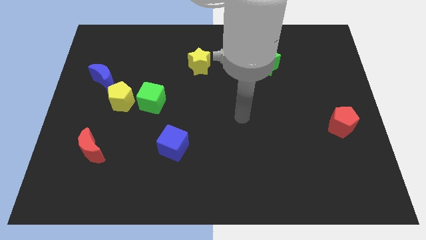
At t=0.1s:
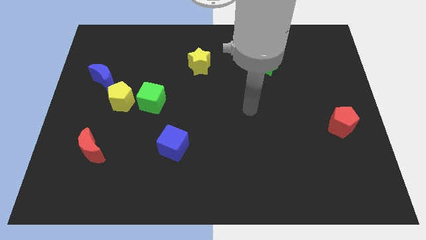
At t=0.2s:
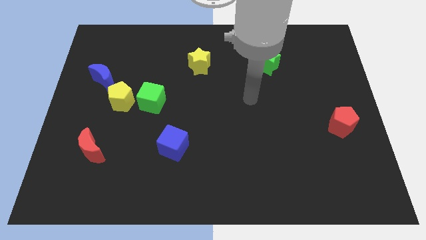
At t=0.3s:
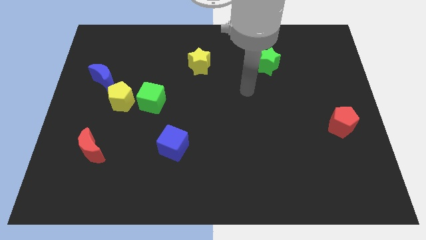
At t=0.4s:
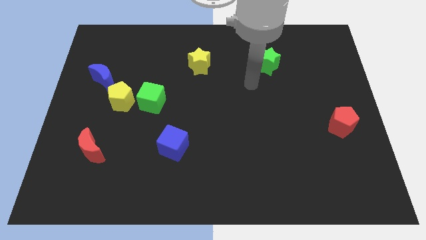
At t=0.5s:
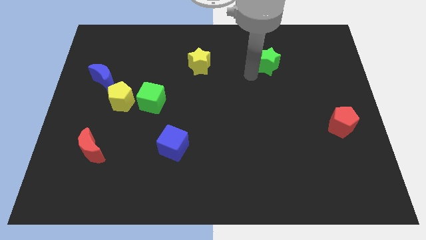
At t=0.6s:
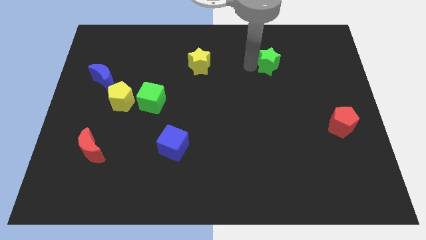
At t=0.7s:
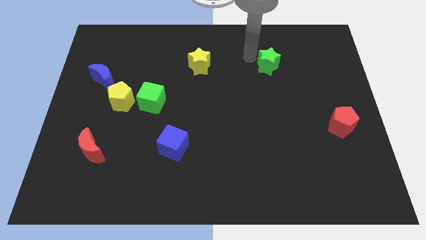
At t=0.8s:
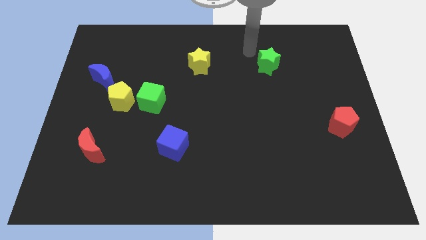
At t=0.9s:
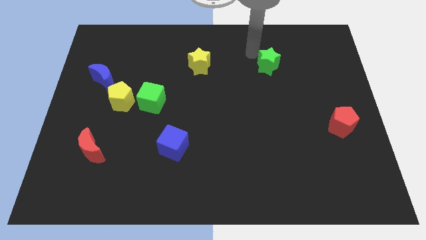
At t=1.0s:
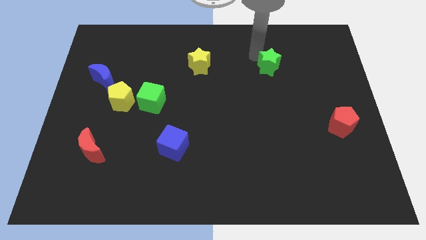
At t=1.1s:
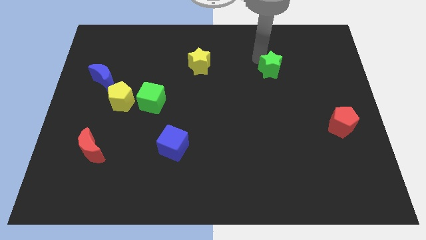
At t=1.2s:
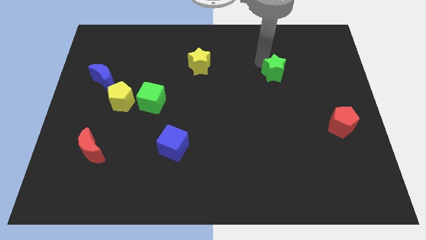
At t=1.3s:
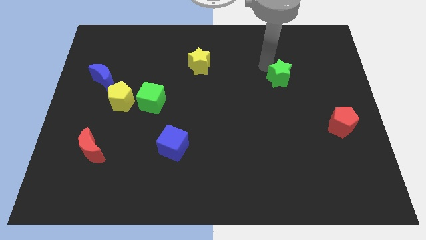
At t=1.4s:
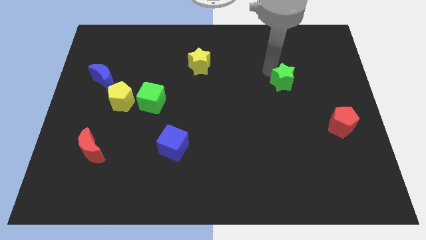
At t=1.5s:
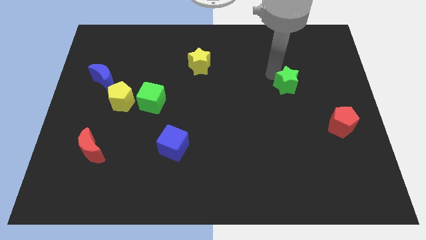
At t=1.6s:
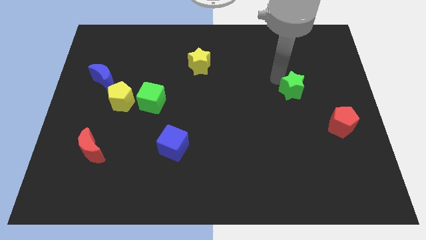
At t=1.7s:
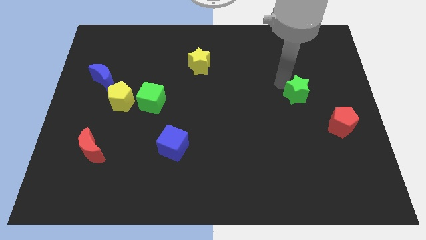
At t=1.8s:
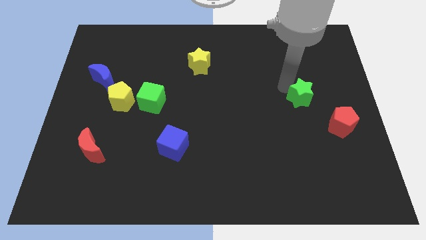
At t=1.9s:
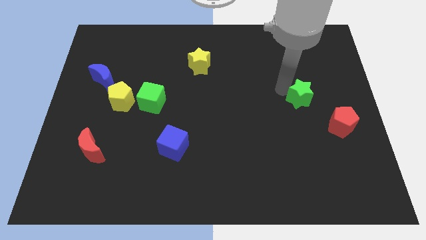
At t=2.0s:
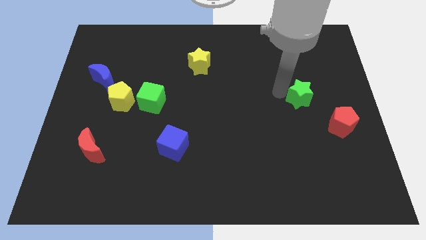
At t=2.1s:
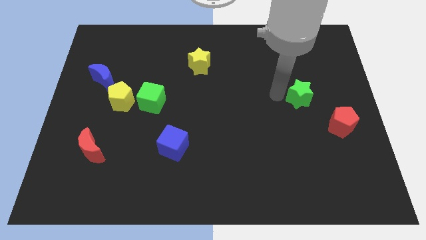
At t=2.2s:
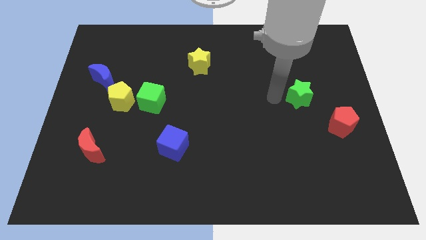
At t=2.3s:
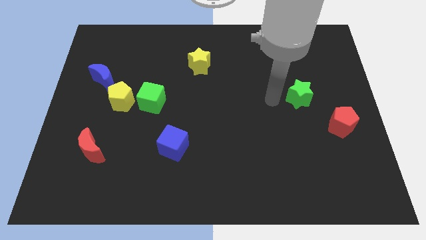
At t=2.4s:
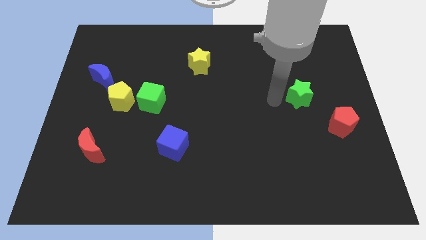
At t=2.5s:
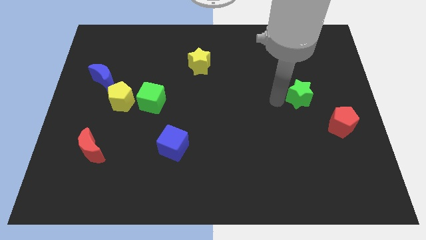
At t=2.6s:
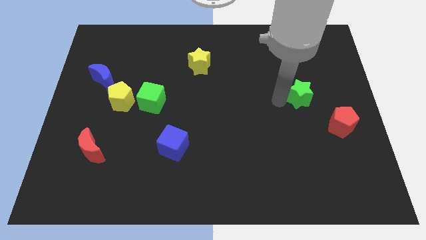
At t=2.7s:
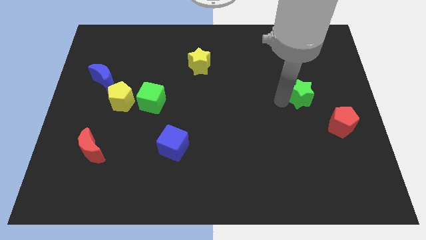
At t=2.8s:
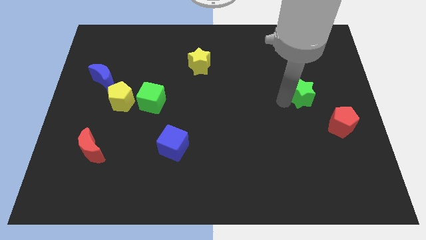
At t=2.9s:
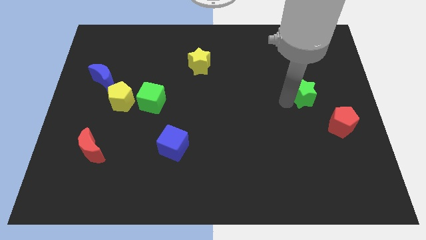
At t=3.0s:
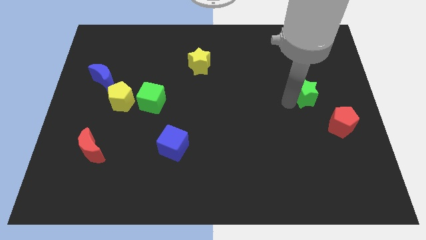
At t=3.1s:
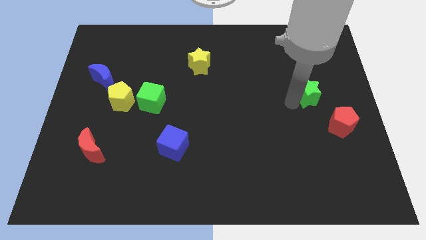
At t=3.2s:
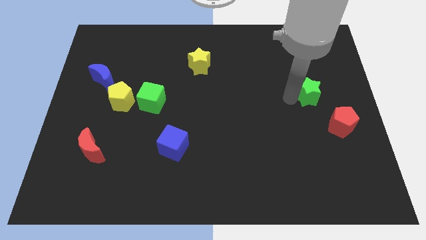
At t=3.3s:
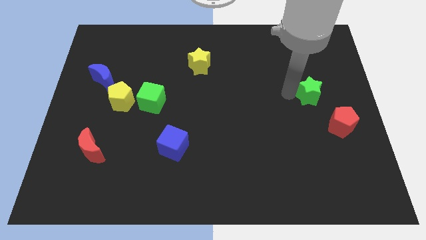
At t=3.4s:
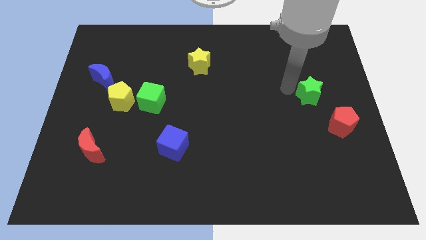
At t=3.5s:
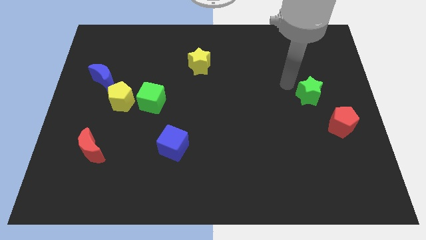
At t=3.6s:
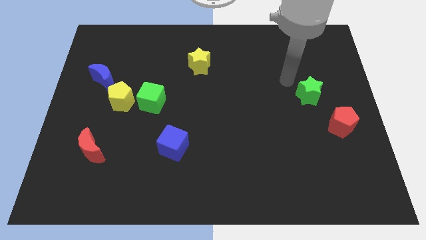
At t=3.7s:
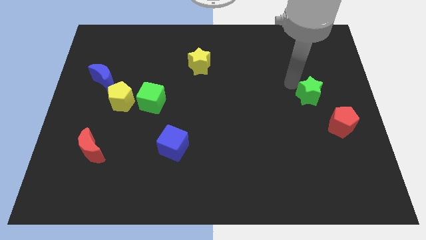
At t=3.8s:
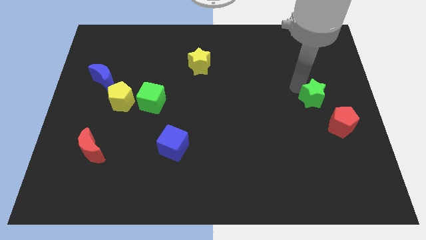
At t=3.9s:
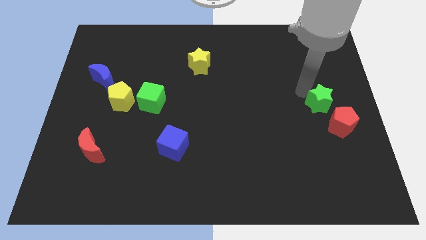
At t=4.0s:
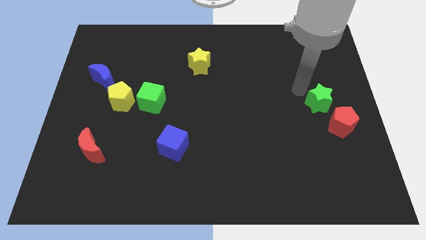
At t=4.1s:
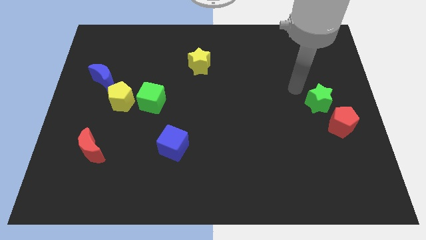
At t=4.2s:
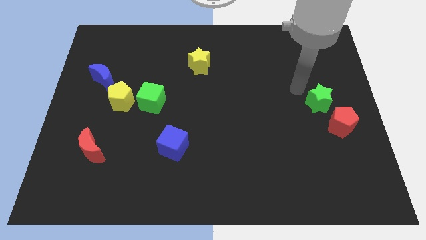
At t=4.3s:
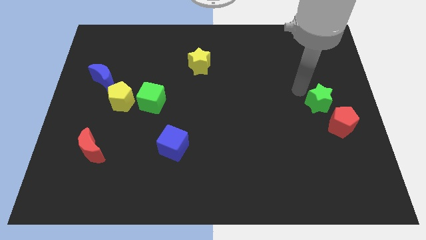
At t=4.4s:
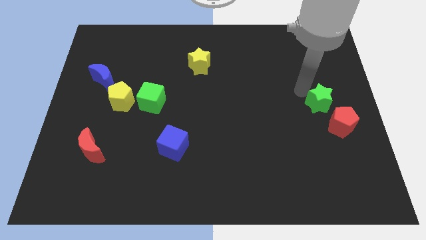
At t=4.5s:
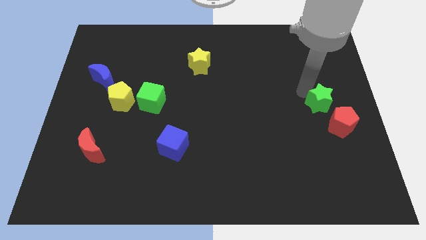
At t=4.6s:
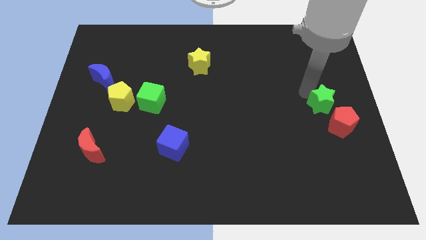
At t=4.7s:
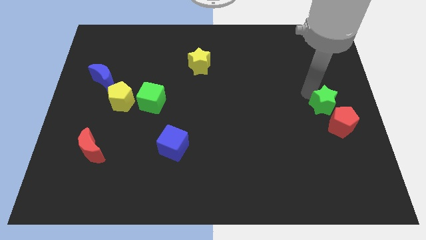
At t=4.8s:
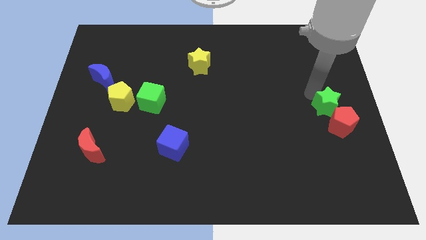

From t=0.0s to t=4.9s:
put the green star towards the red pentagon

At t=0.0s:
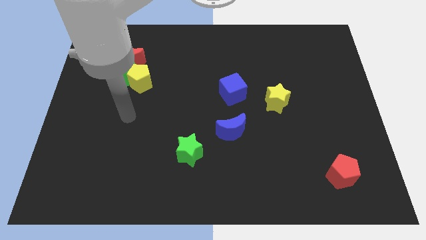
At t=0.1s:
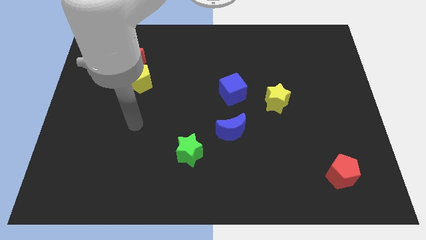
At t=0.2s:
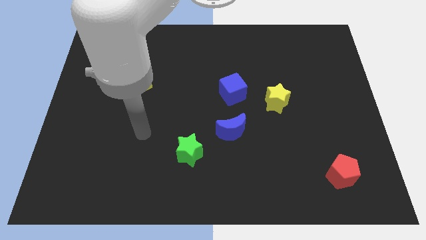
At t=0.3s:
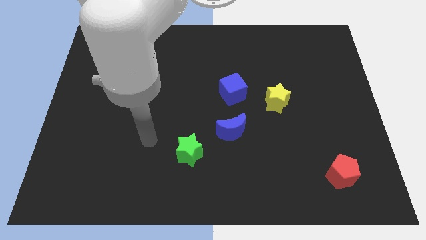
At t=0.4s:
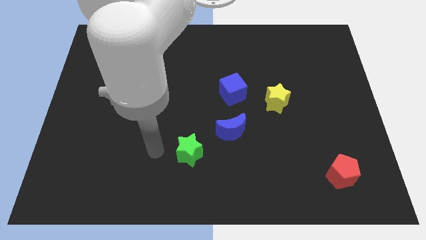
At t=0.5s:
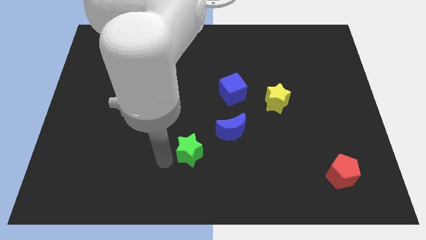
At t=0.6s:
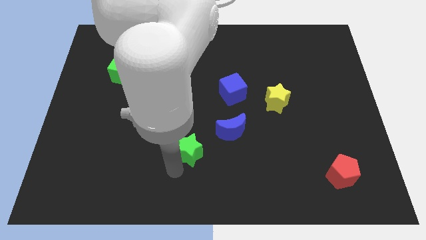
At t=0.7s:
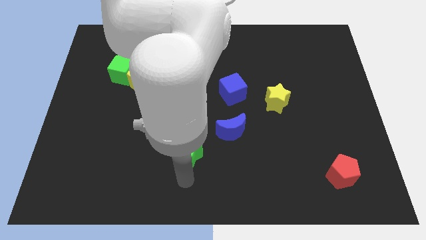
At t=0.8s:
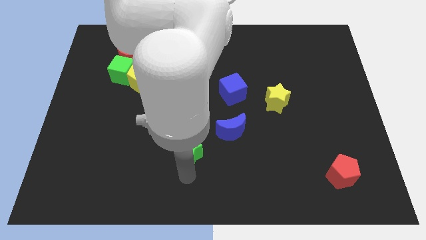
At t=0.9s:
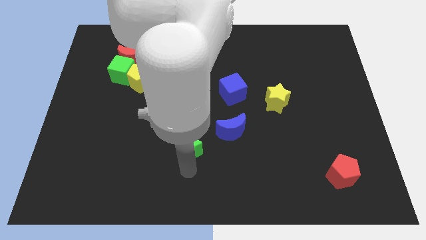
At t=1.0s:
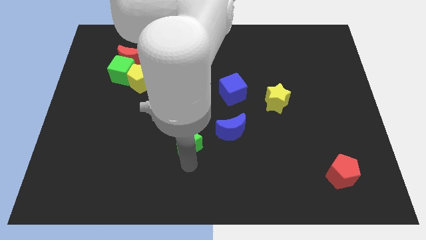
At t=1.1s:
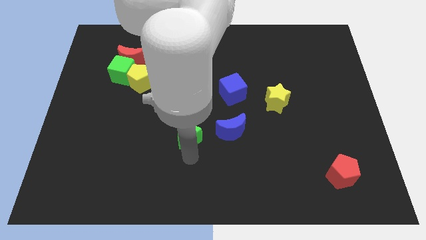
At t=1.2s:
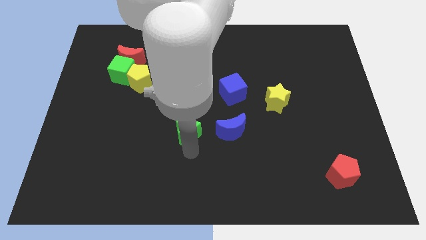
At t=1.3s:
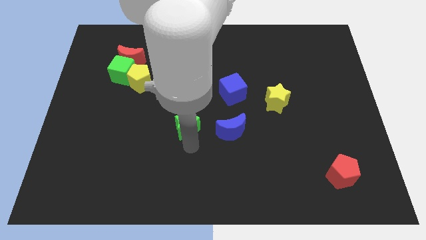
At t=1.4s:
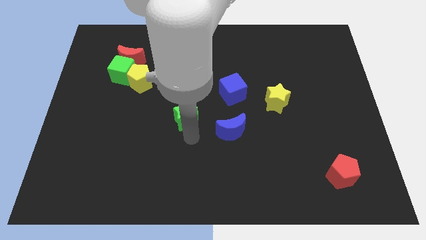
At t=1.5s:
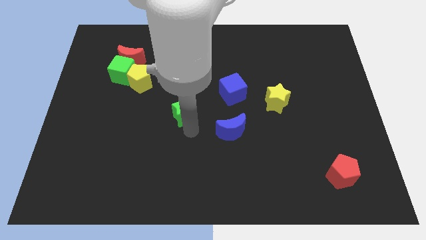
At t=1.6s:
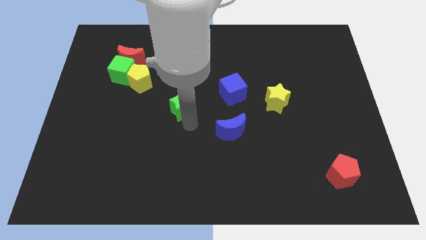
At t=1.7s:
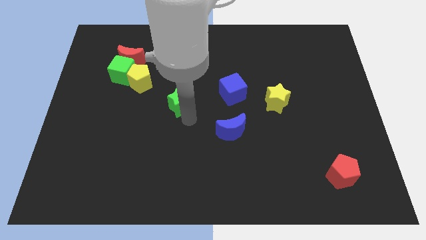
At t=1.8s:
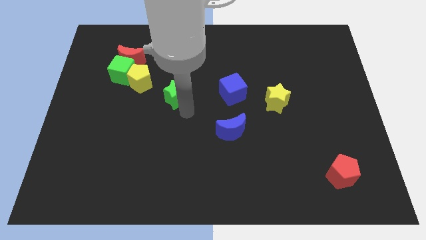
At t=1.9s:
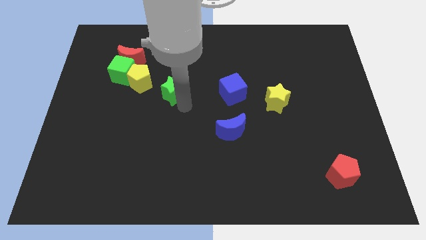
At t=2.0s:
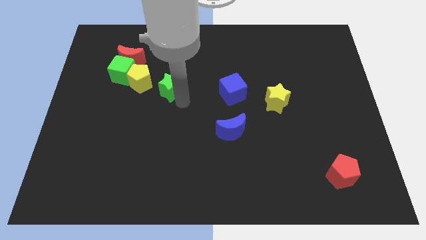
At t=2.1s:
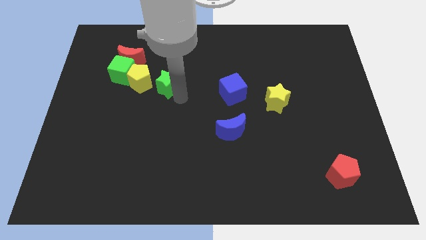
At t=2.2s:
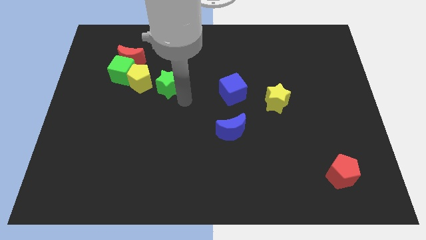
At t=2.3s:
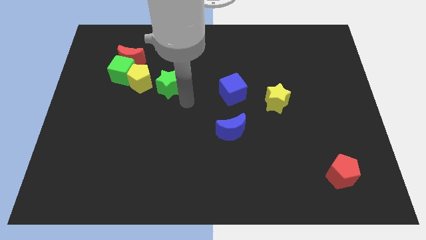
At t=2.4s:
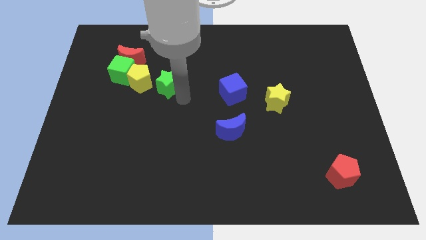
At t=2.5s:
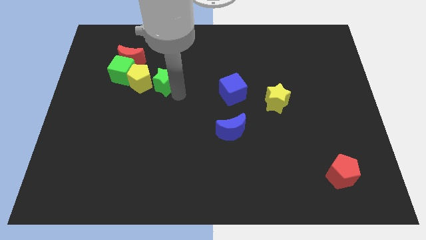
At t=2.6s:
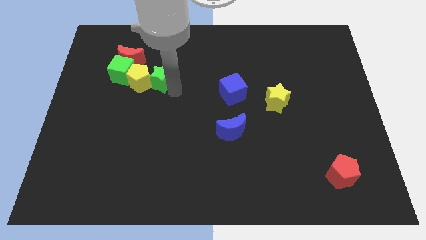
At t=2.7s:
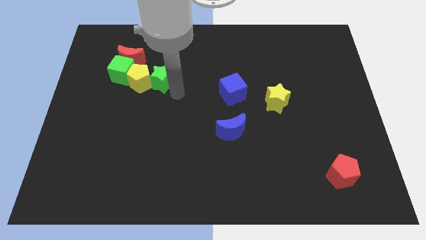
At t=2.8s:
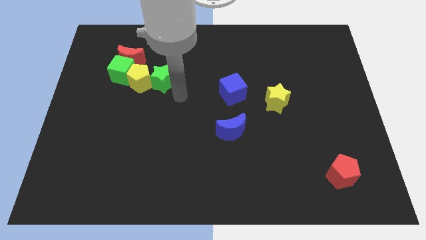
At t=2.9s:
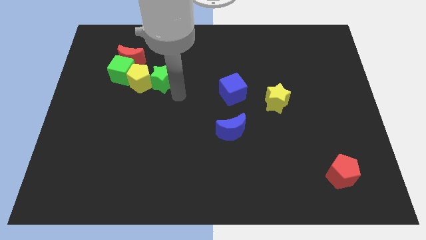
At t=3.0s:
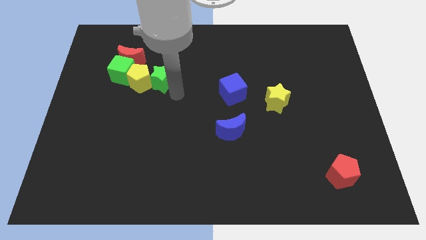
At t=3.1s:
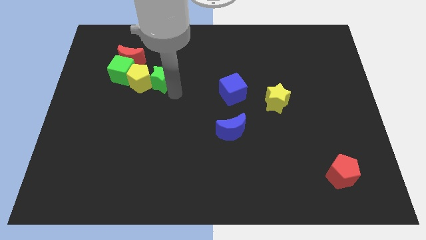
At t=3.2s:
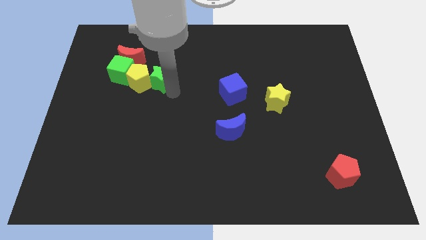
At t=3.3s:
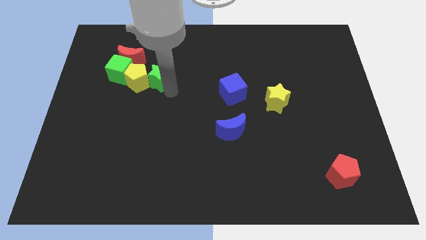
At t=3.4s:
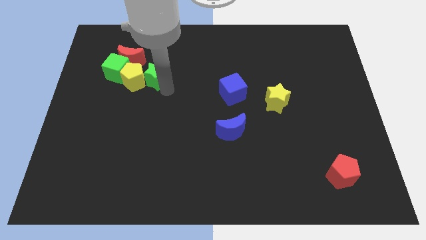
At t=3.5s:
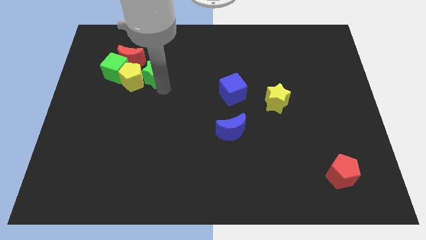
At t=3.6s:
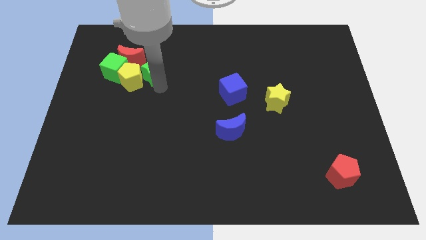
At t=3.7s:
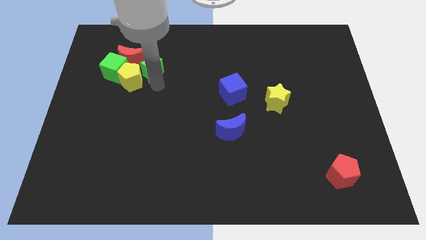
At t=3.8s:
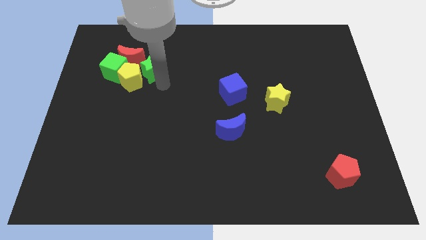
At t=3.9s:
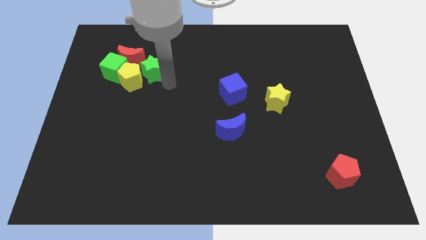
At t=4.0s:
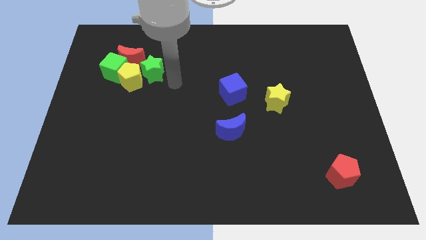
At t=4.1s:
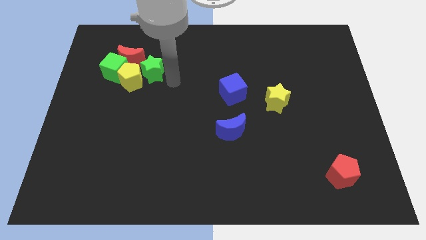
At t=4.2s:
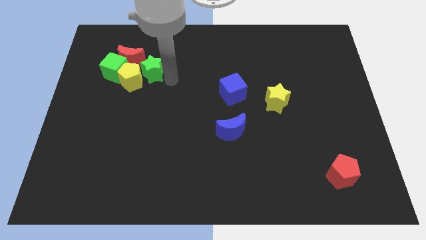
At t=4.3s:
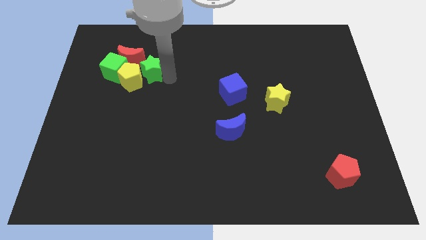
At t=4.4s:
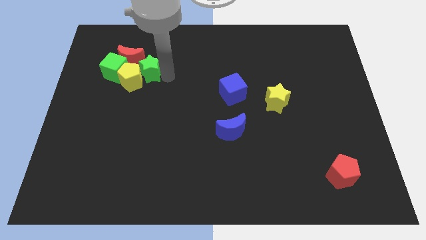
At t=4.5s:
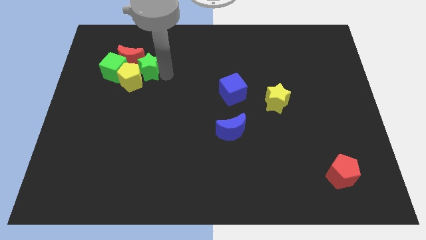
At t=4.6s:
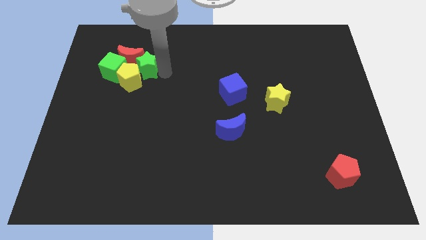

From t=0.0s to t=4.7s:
put the green star to the red moon
